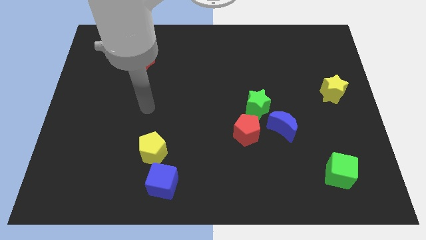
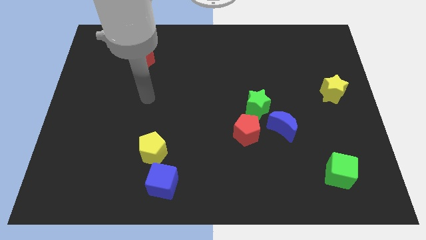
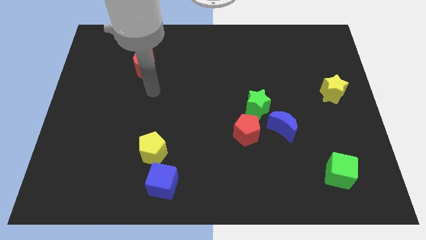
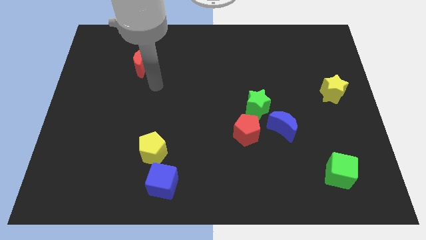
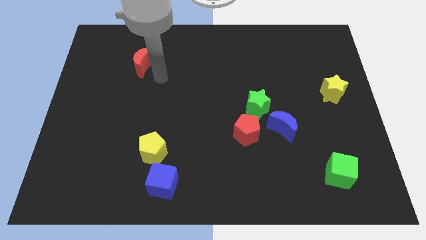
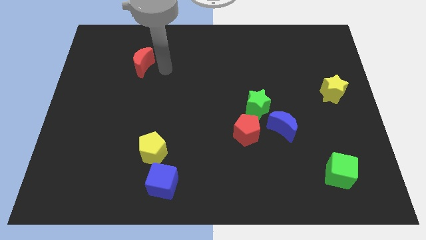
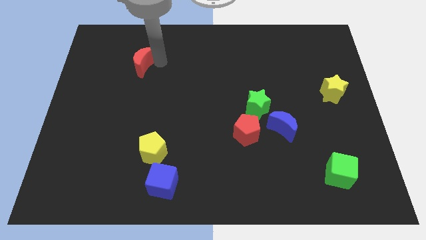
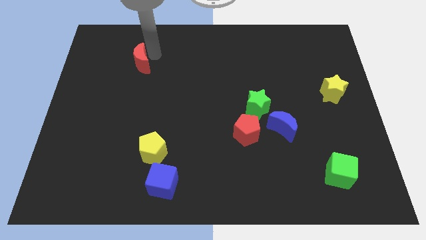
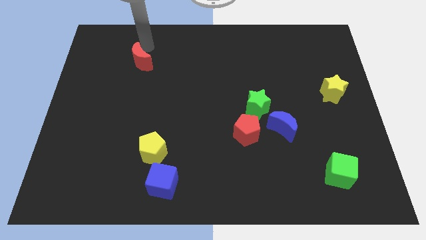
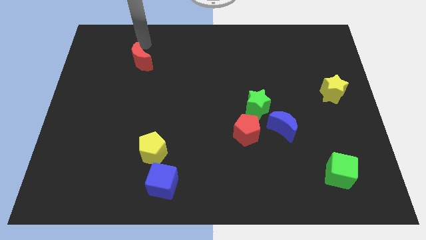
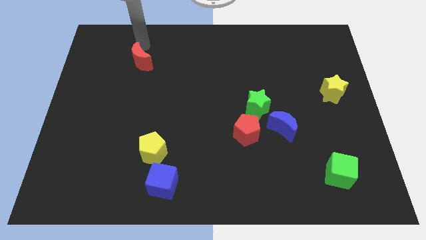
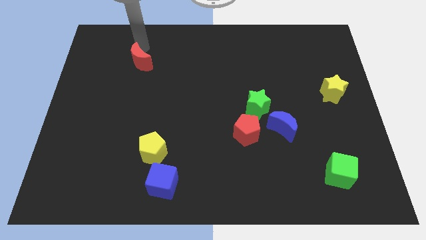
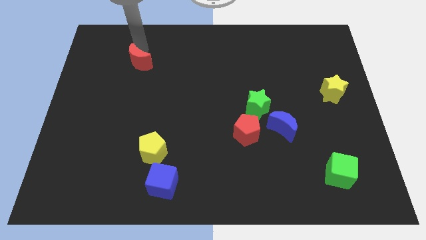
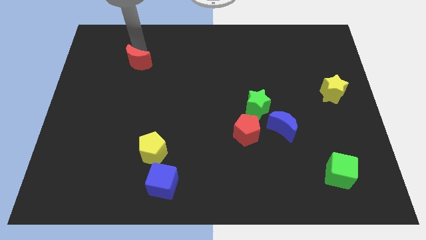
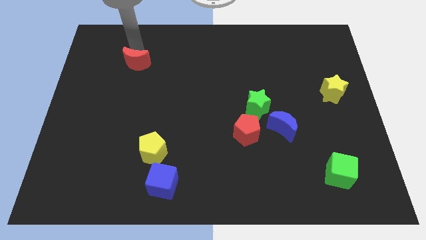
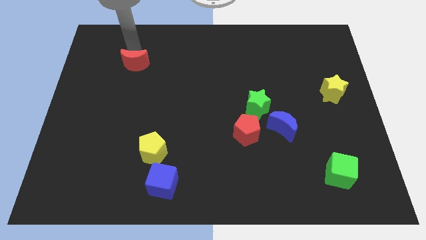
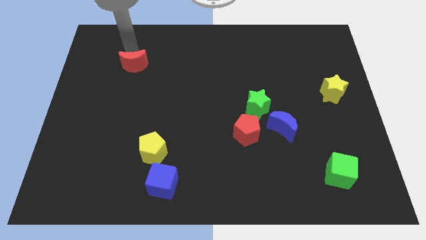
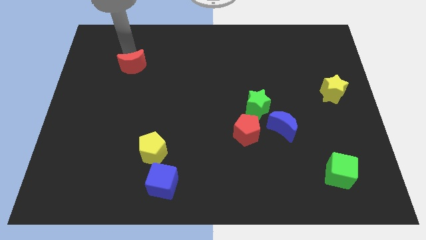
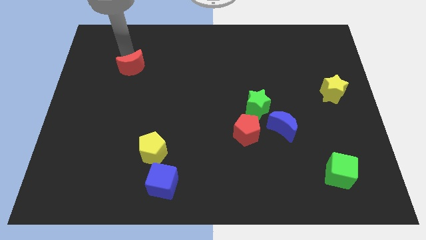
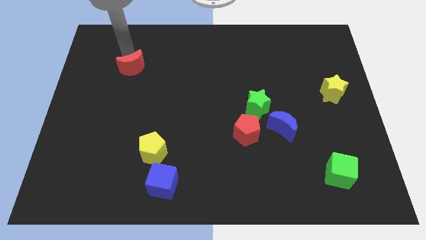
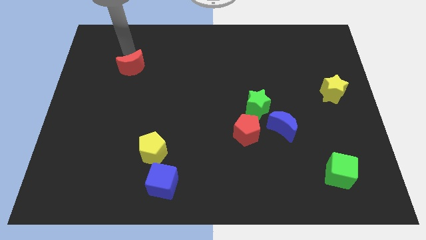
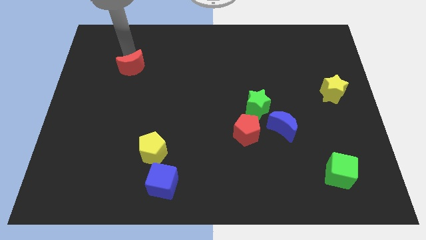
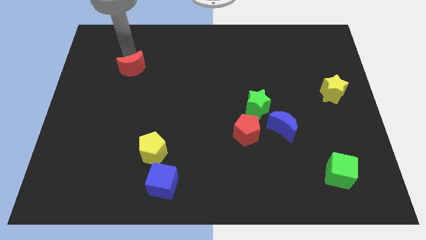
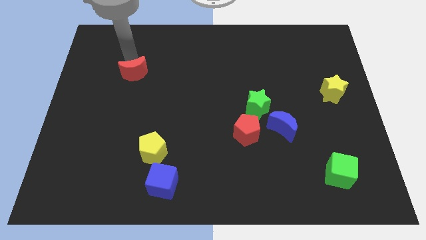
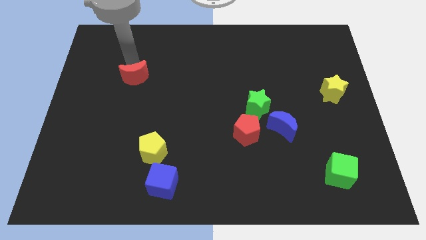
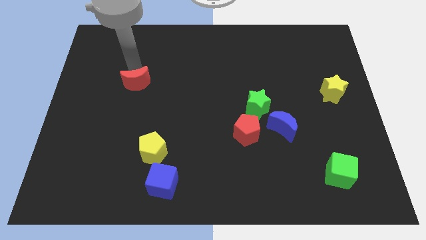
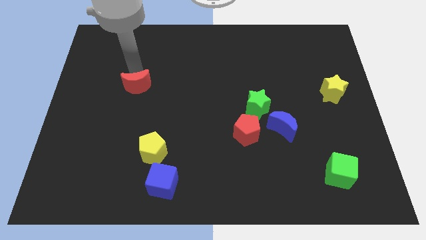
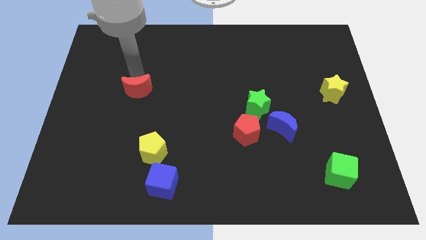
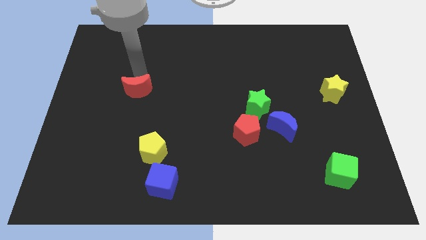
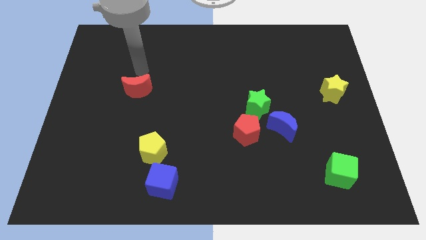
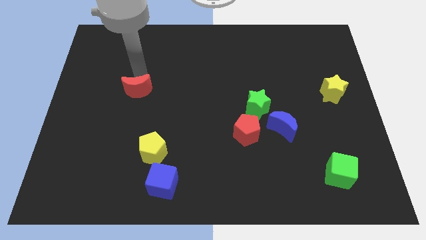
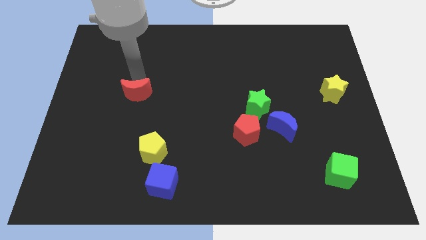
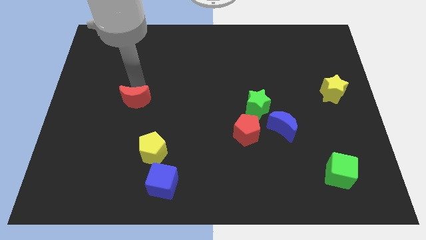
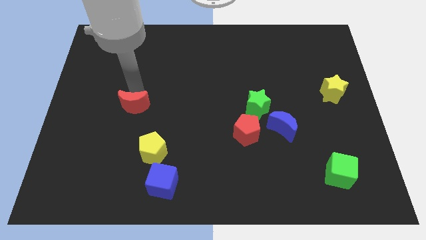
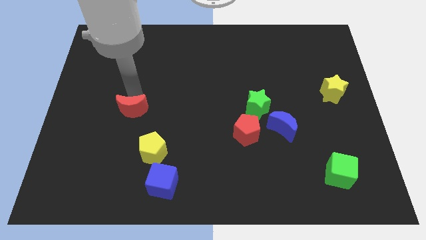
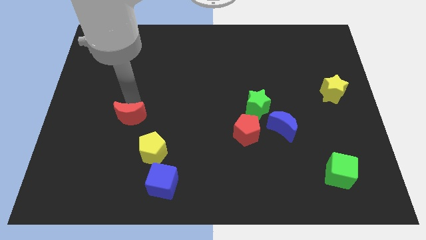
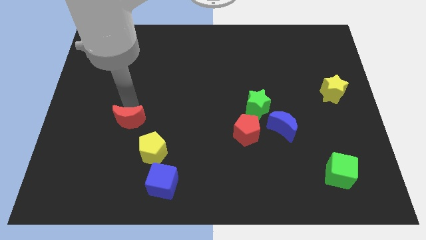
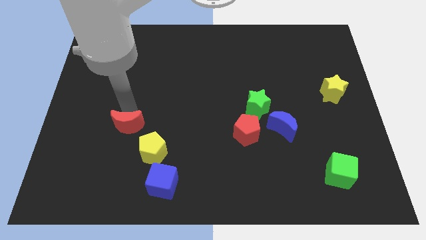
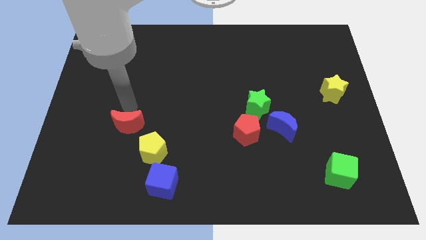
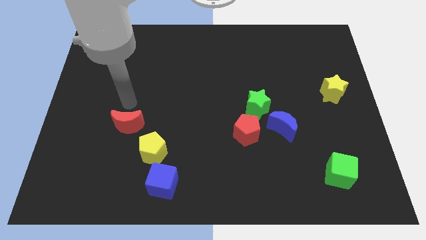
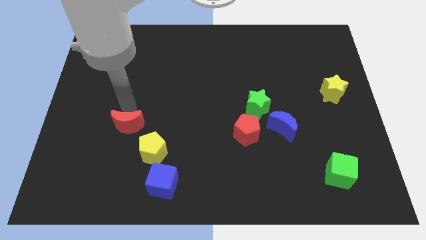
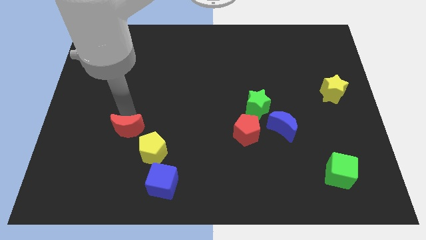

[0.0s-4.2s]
push the red moon down

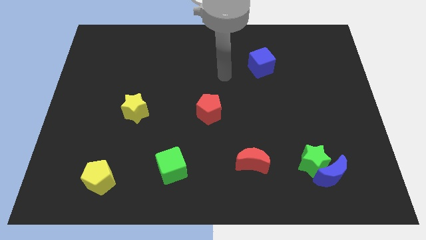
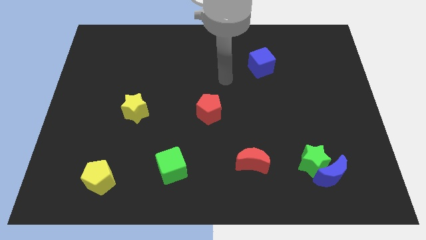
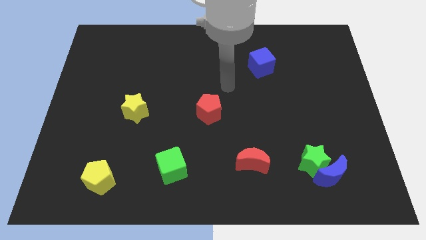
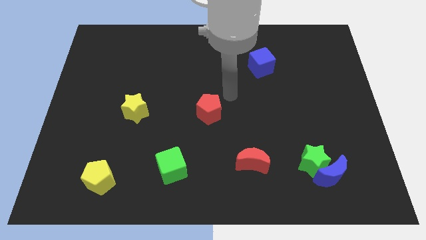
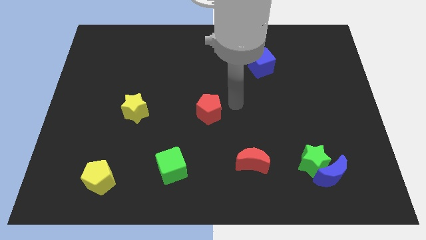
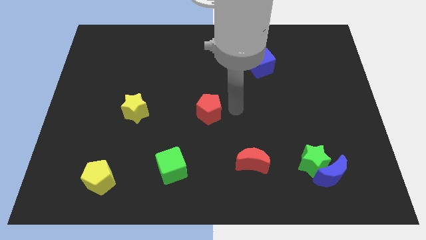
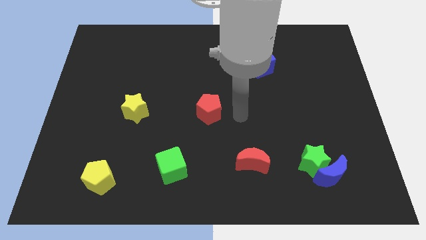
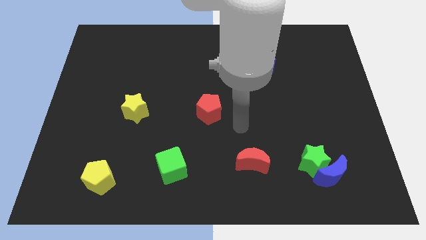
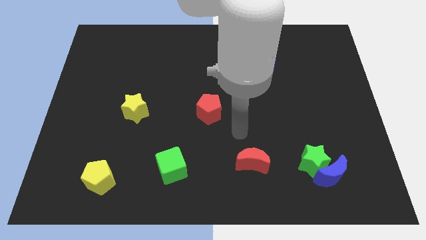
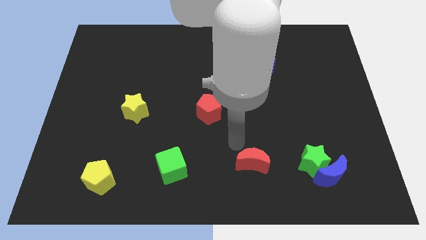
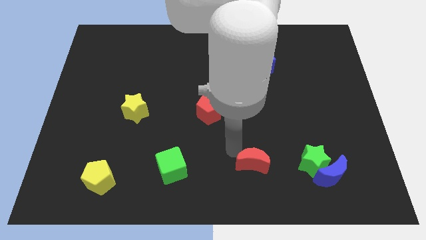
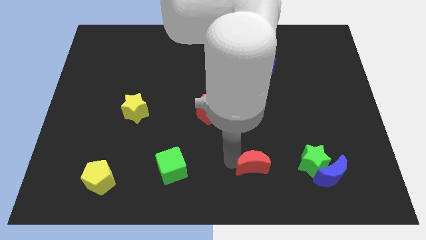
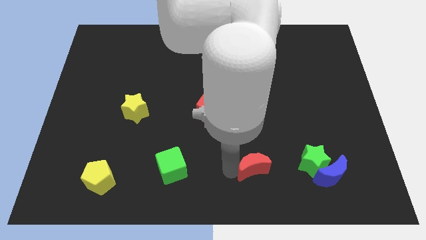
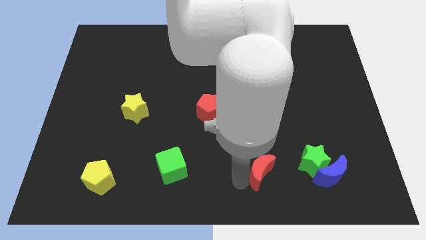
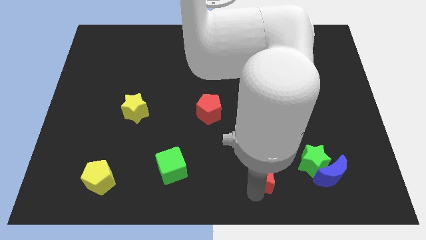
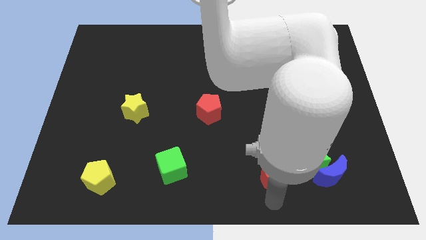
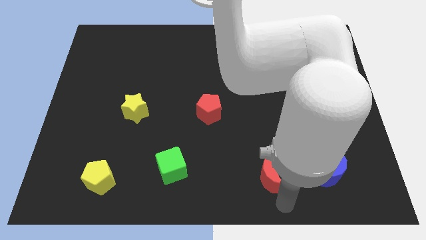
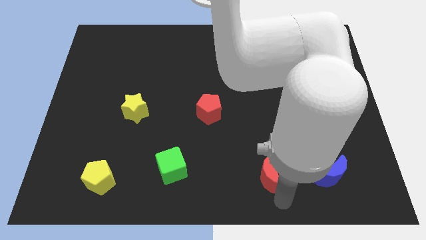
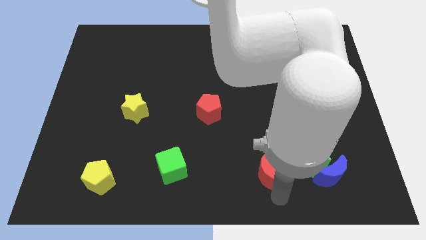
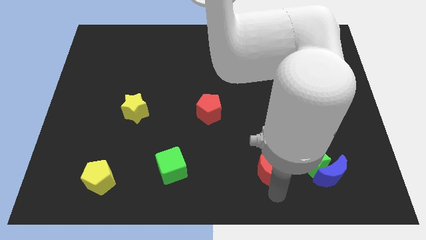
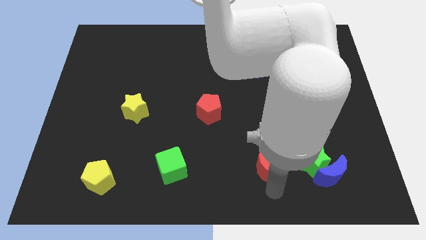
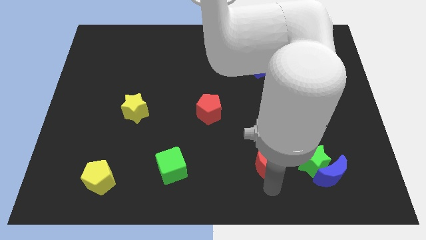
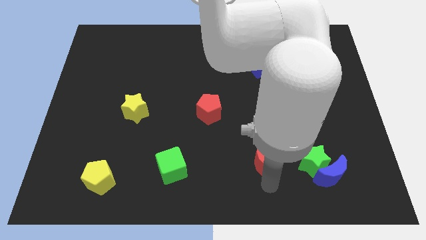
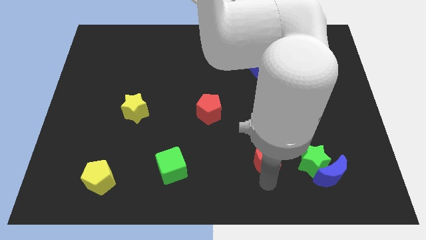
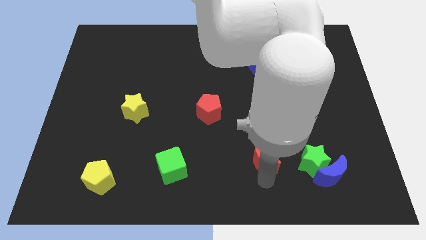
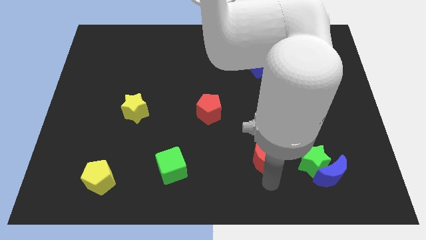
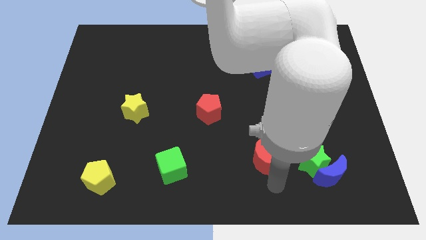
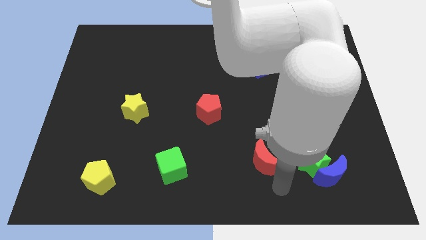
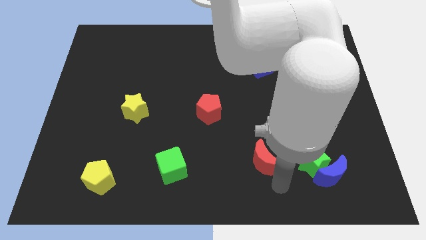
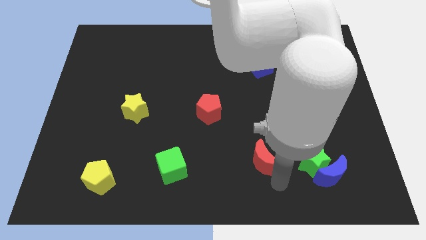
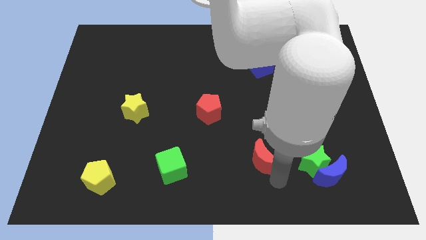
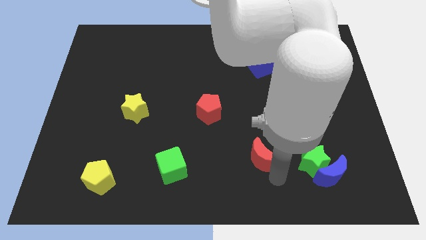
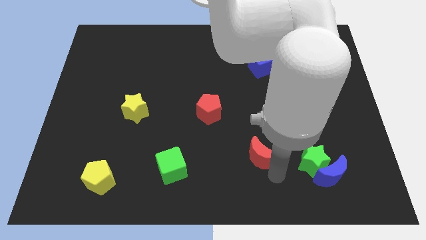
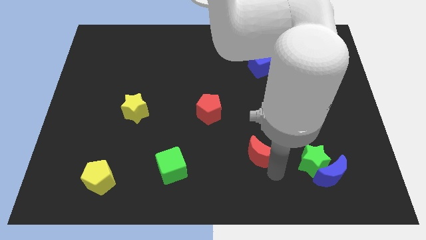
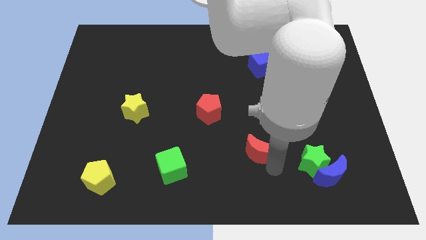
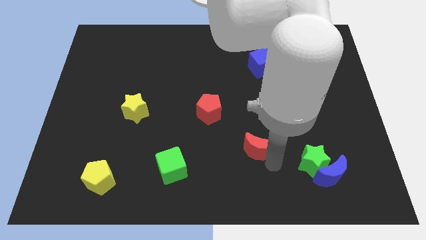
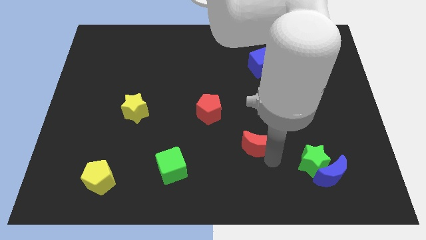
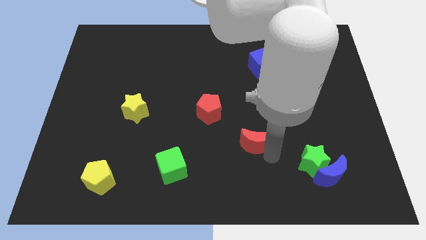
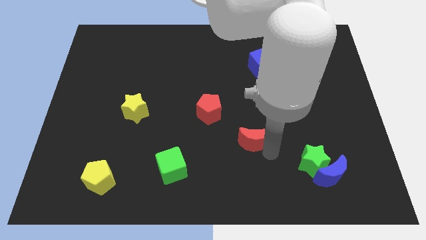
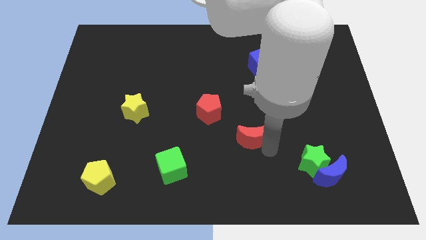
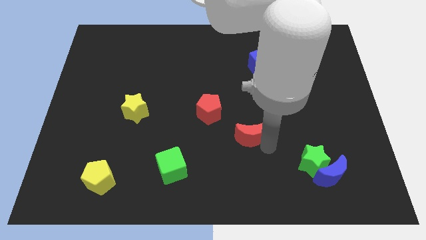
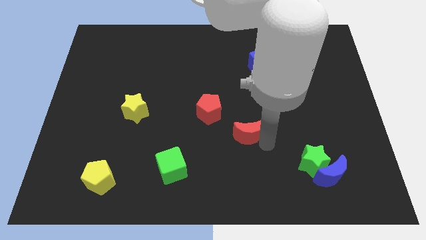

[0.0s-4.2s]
slightly slide the red moon up
